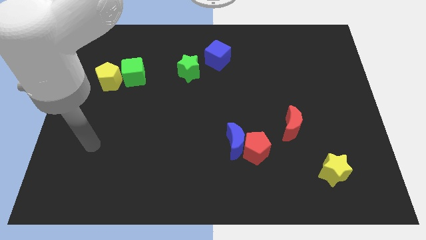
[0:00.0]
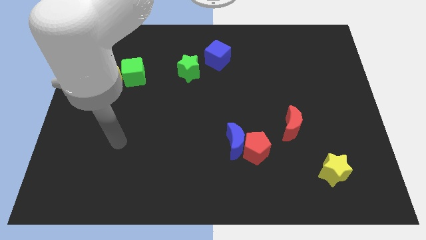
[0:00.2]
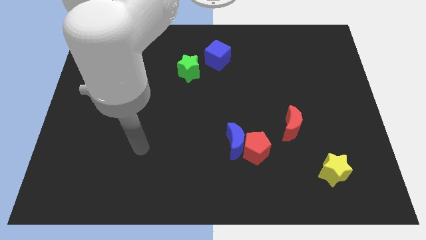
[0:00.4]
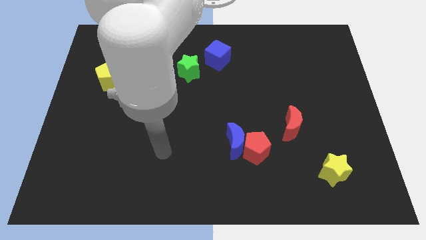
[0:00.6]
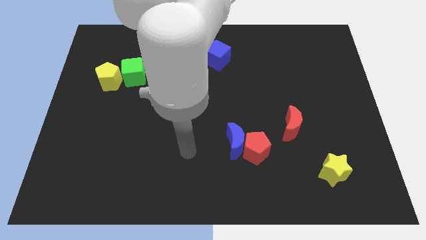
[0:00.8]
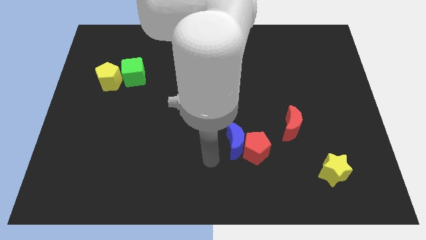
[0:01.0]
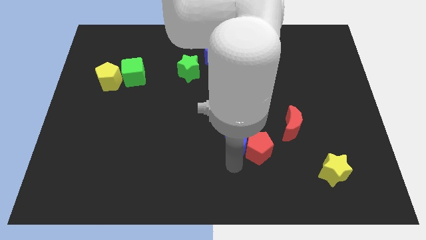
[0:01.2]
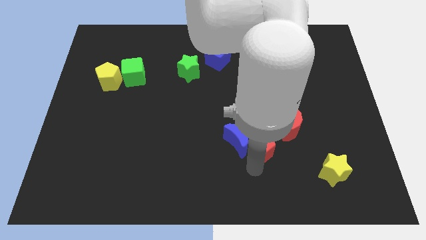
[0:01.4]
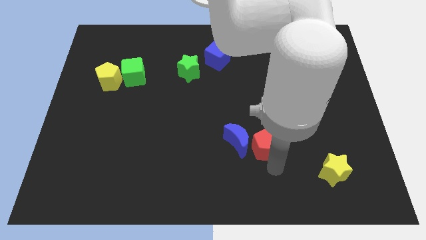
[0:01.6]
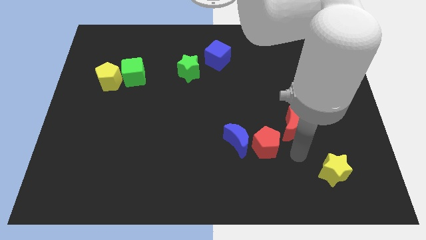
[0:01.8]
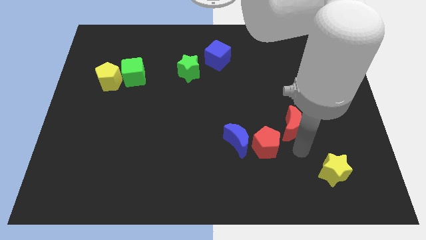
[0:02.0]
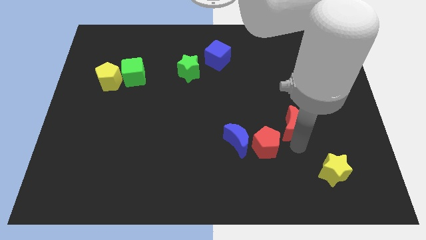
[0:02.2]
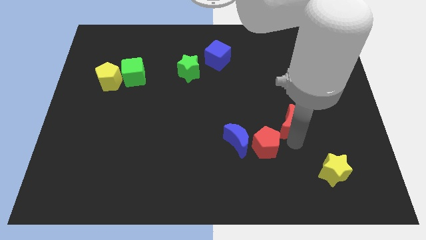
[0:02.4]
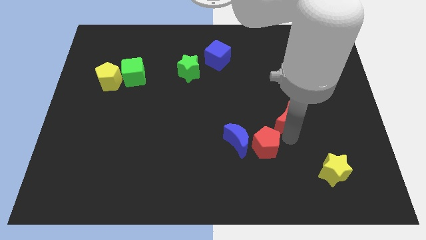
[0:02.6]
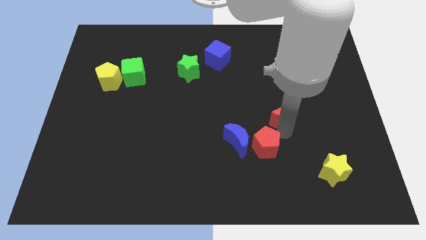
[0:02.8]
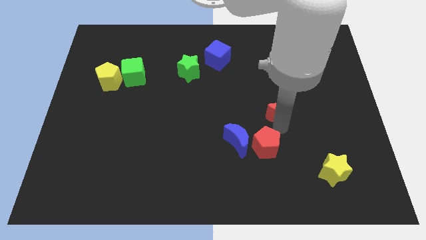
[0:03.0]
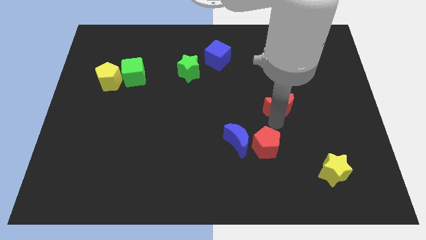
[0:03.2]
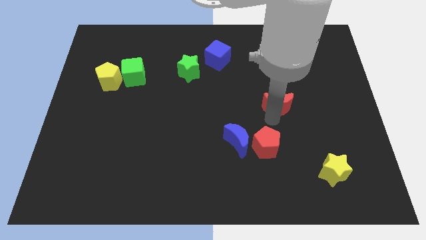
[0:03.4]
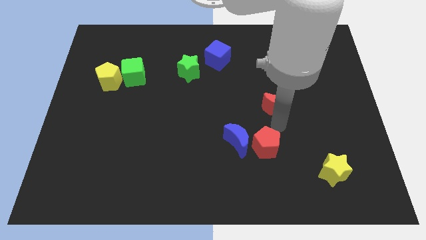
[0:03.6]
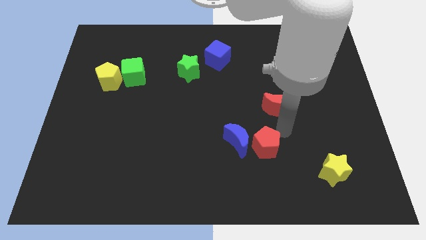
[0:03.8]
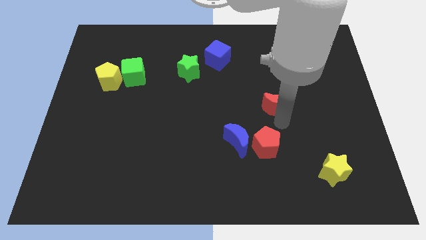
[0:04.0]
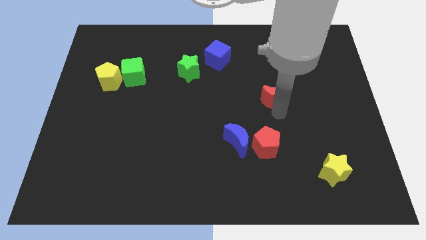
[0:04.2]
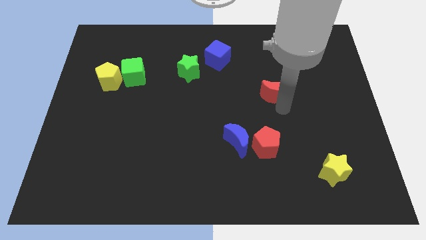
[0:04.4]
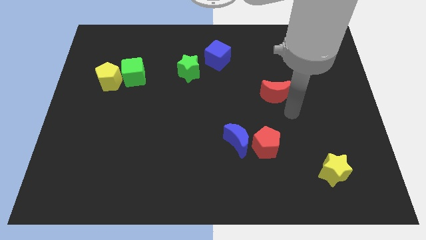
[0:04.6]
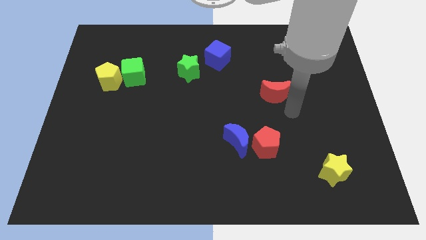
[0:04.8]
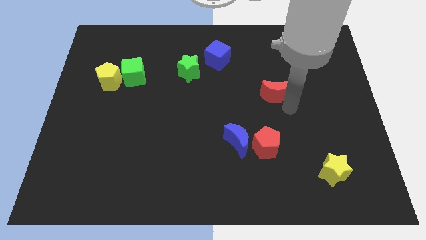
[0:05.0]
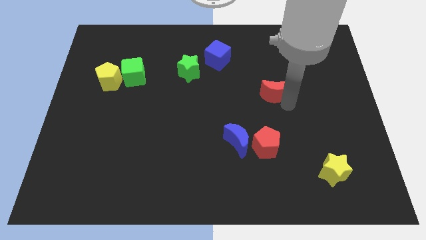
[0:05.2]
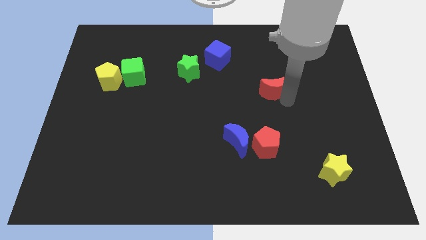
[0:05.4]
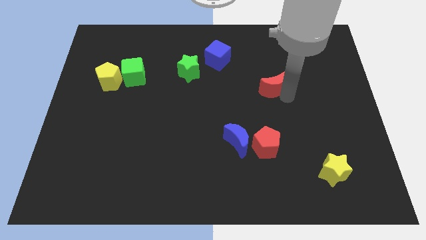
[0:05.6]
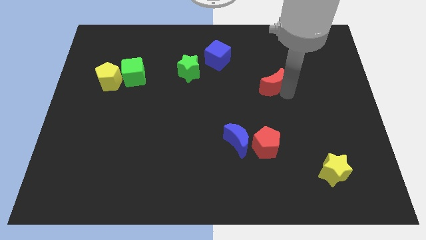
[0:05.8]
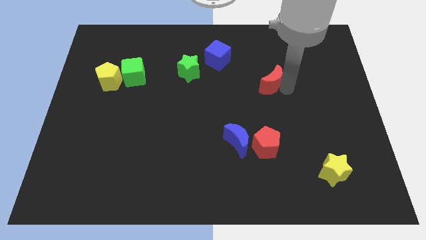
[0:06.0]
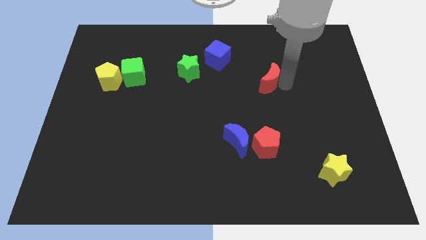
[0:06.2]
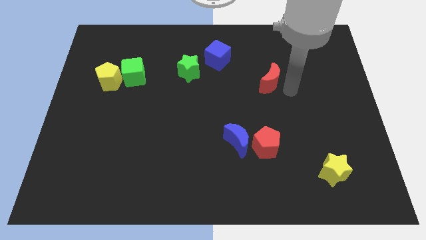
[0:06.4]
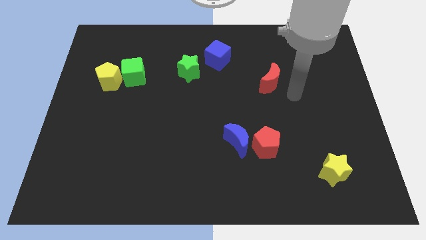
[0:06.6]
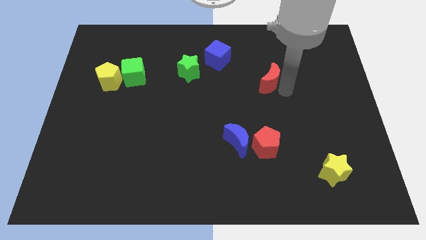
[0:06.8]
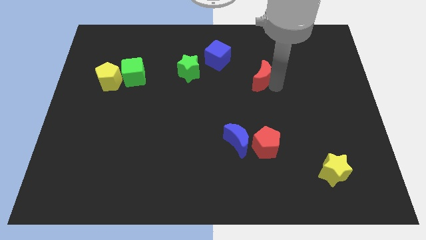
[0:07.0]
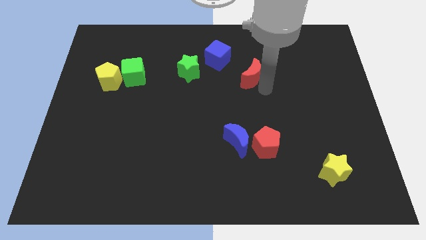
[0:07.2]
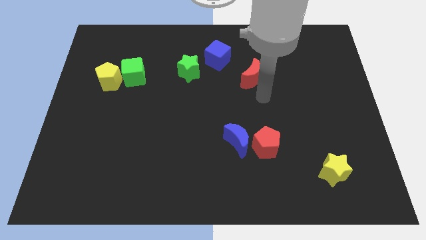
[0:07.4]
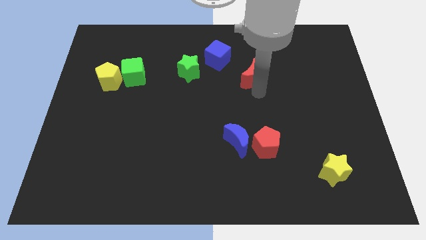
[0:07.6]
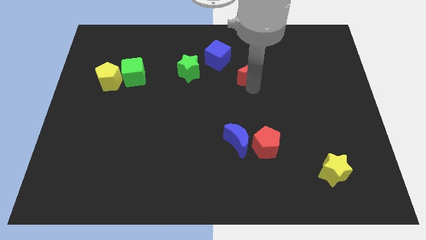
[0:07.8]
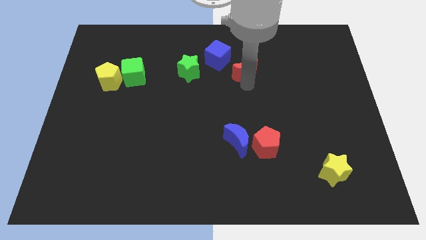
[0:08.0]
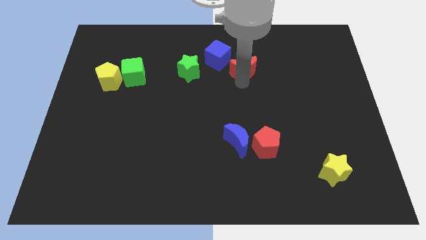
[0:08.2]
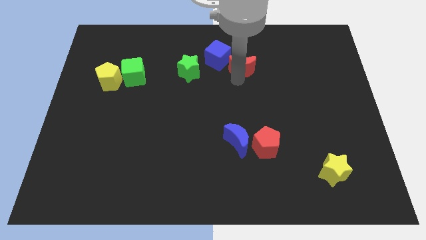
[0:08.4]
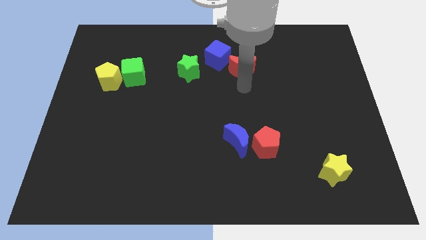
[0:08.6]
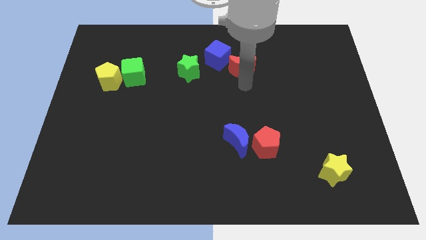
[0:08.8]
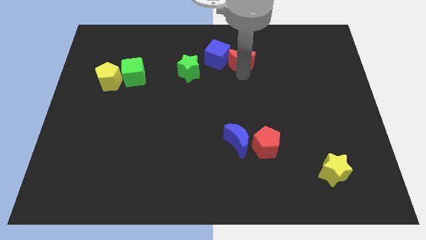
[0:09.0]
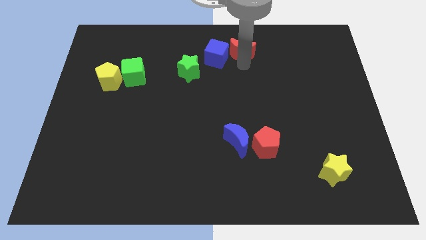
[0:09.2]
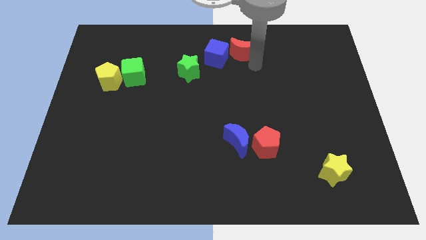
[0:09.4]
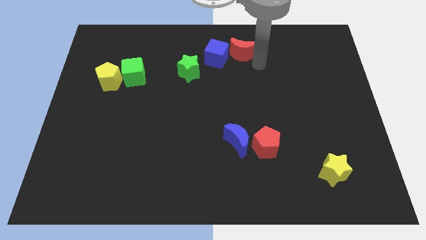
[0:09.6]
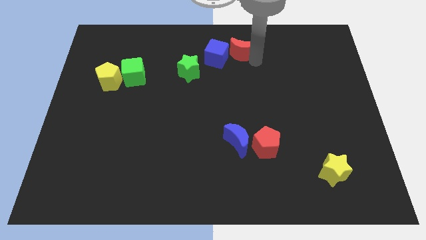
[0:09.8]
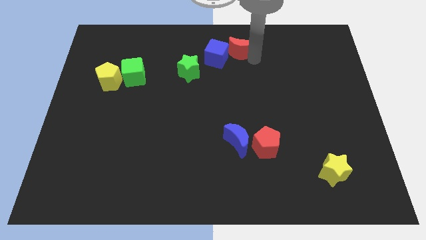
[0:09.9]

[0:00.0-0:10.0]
put the red moon to the towards your base

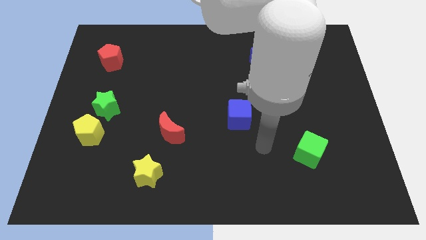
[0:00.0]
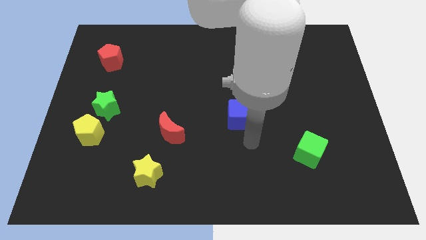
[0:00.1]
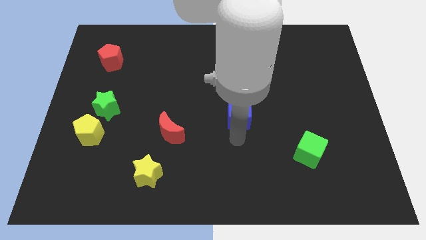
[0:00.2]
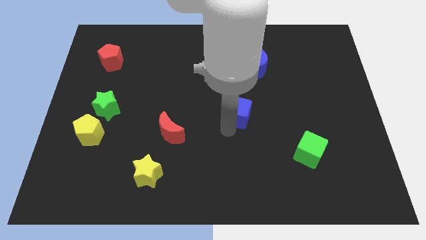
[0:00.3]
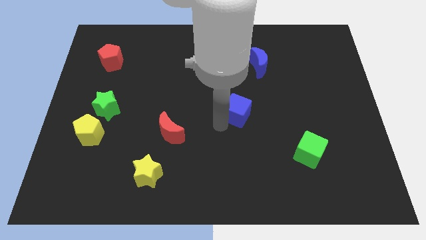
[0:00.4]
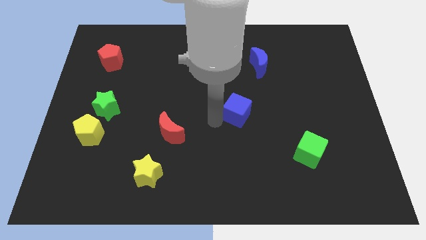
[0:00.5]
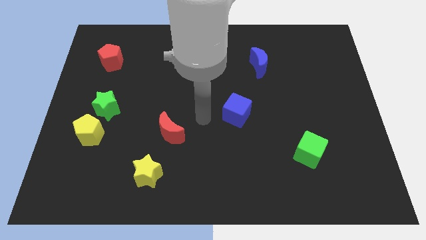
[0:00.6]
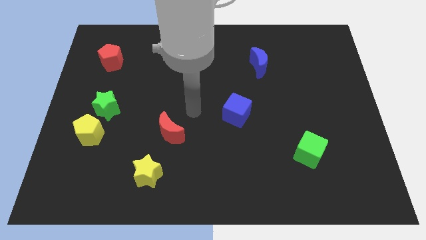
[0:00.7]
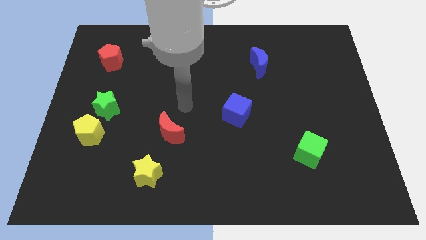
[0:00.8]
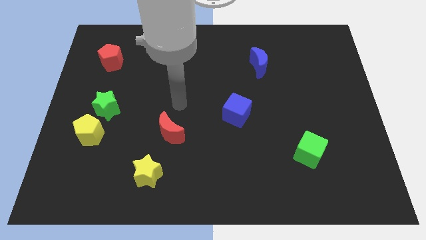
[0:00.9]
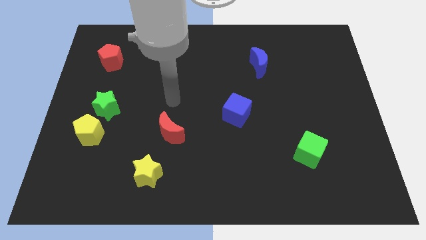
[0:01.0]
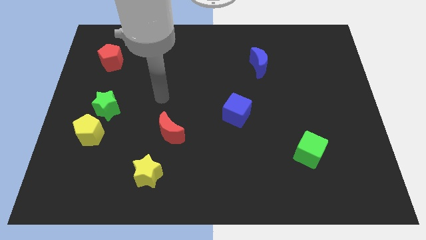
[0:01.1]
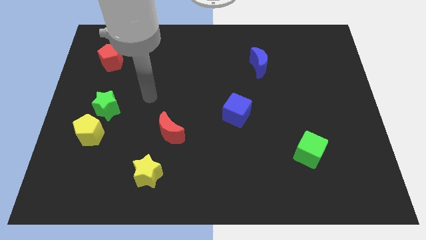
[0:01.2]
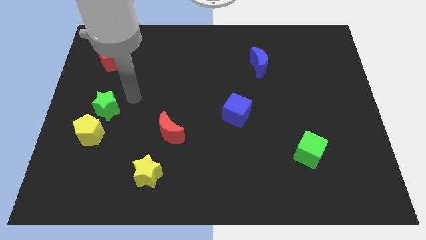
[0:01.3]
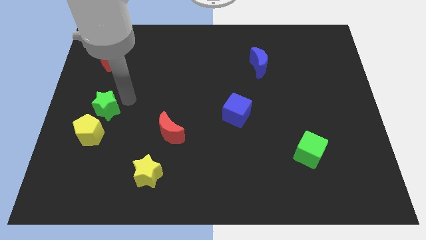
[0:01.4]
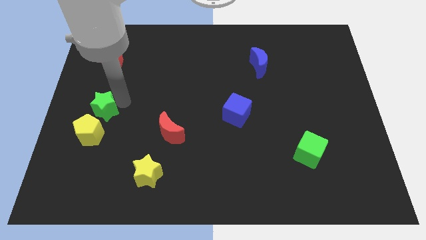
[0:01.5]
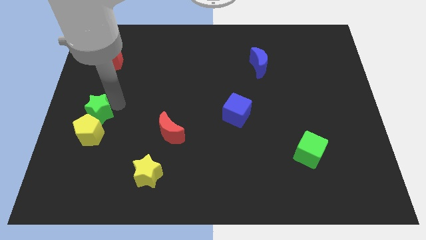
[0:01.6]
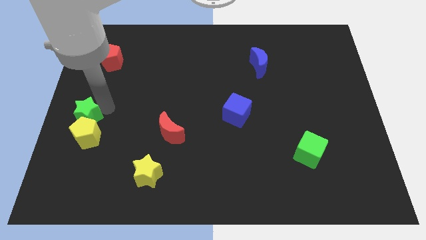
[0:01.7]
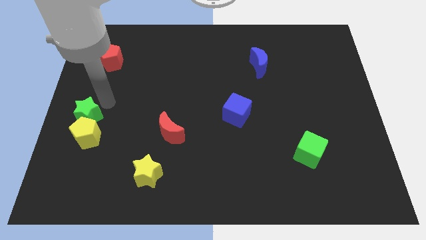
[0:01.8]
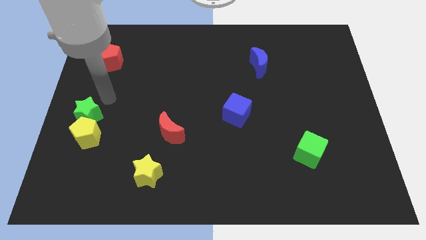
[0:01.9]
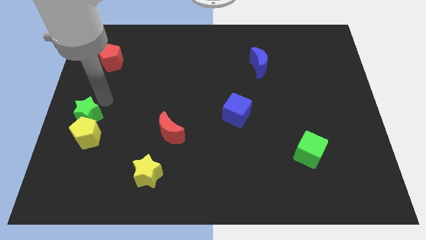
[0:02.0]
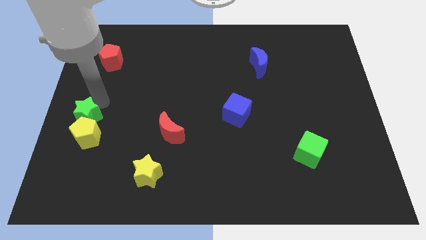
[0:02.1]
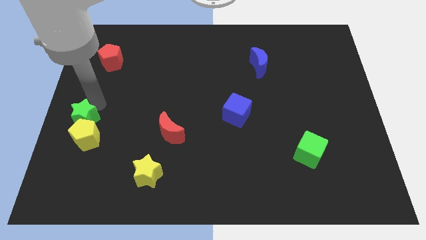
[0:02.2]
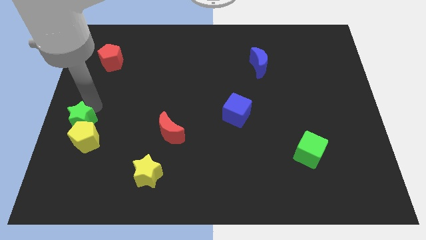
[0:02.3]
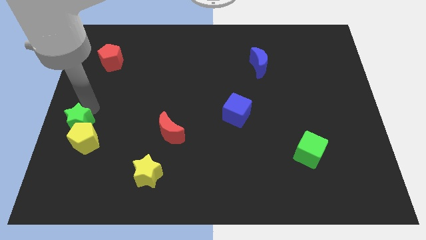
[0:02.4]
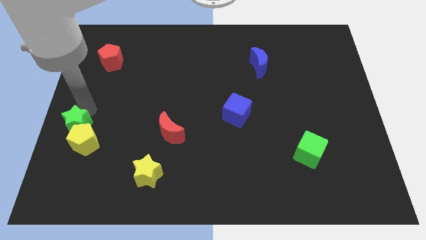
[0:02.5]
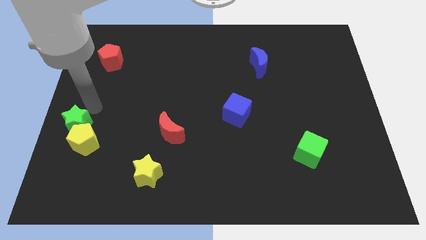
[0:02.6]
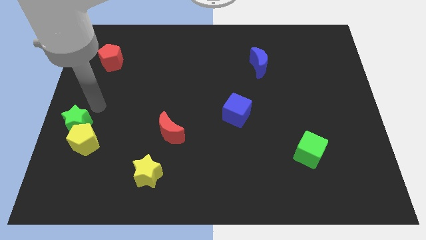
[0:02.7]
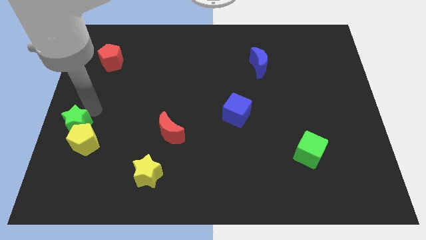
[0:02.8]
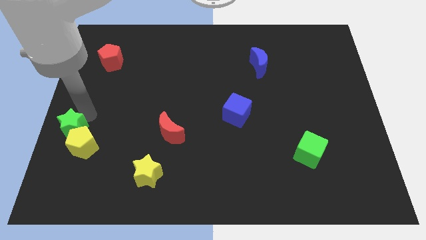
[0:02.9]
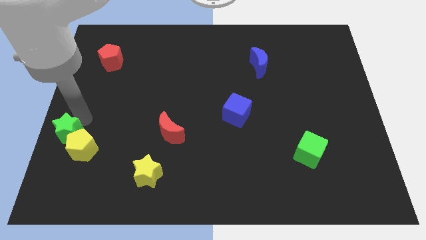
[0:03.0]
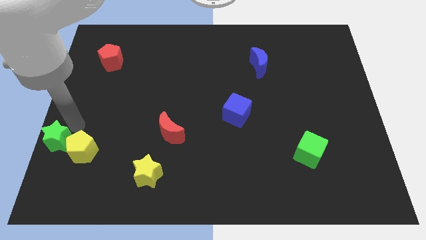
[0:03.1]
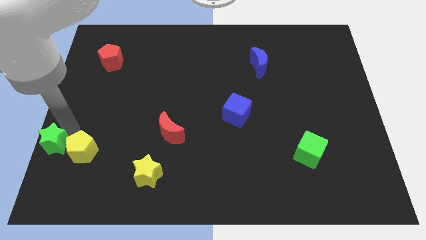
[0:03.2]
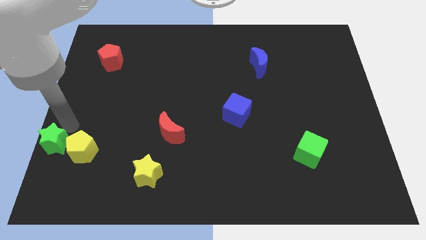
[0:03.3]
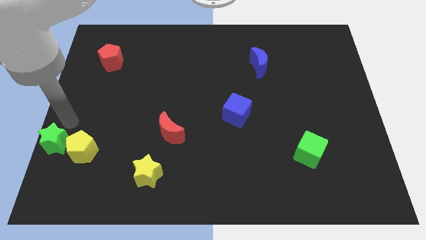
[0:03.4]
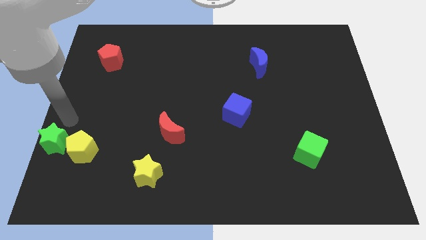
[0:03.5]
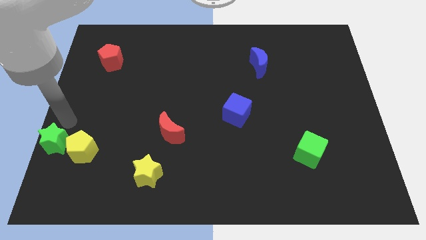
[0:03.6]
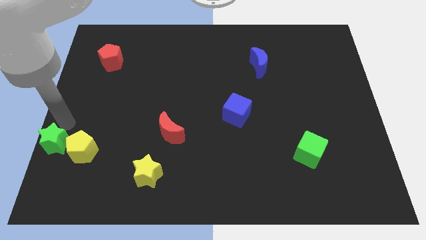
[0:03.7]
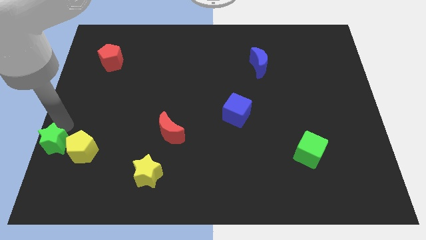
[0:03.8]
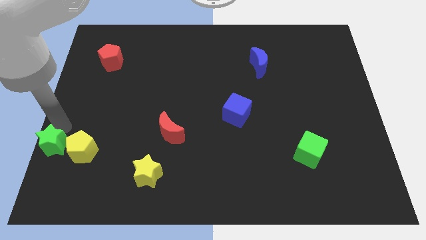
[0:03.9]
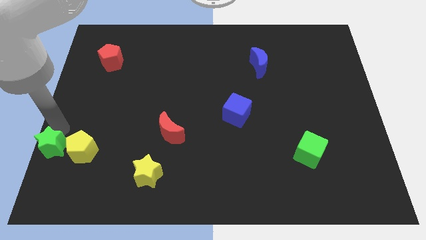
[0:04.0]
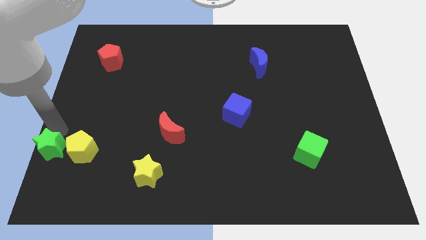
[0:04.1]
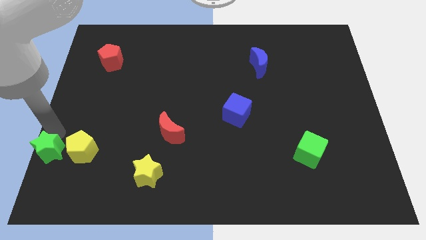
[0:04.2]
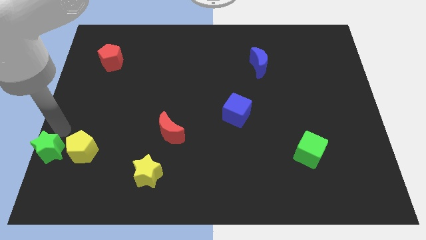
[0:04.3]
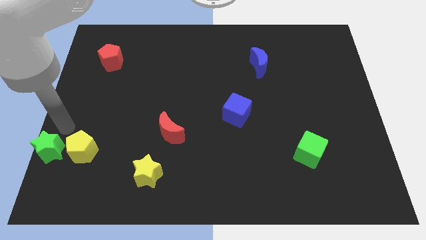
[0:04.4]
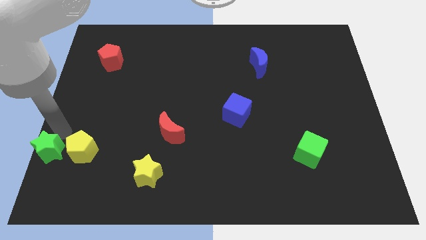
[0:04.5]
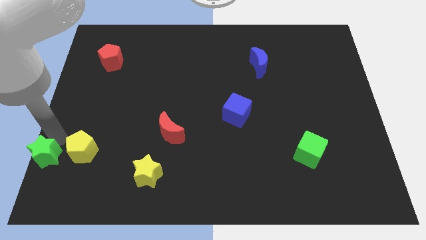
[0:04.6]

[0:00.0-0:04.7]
push the green star to the lower left corner
